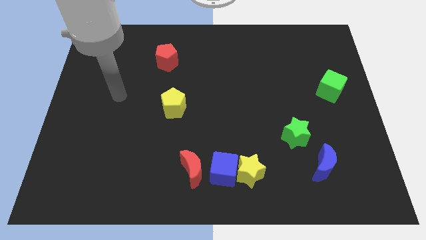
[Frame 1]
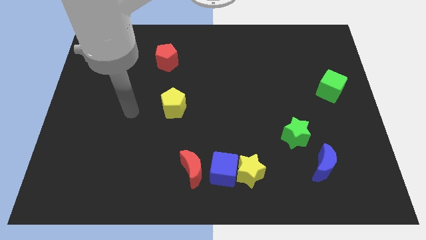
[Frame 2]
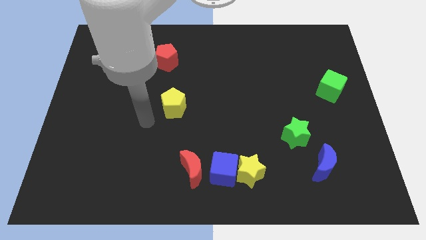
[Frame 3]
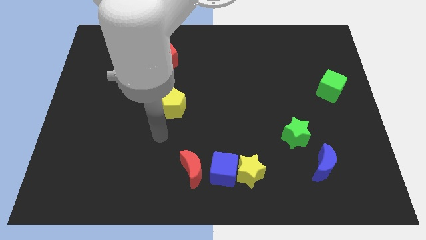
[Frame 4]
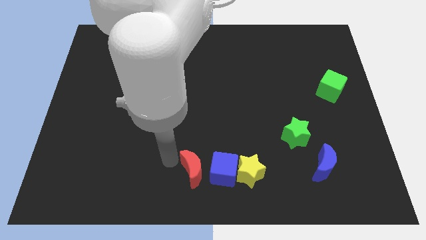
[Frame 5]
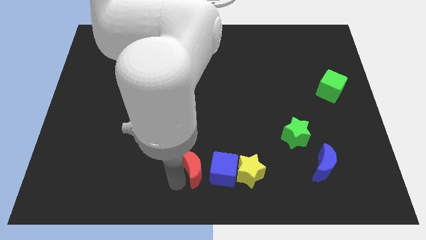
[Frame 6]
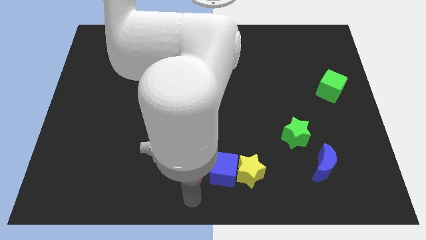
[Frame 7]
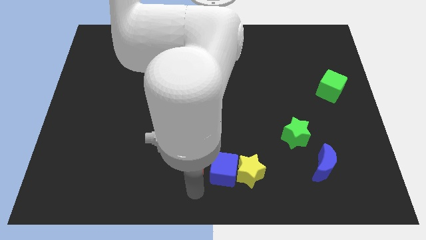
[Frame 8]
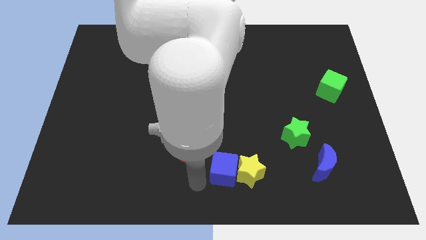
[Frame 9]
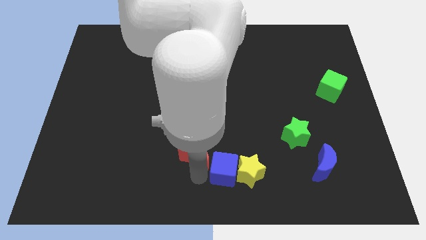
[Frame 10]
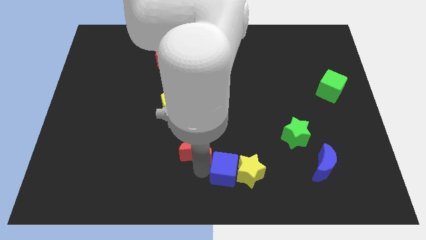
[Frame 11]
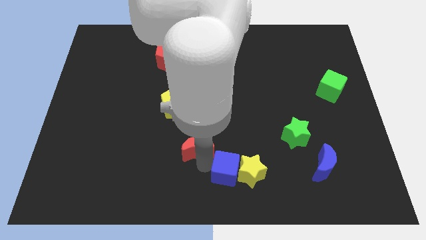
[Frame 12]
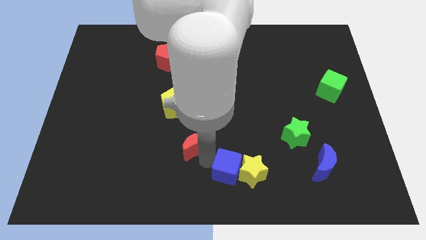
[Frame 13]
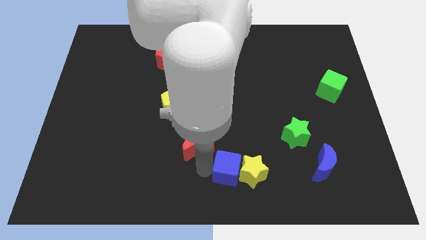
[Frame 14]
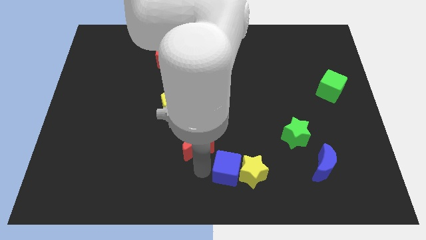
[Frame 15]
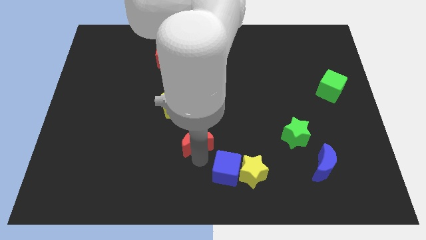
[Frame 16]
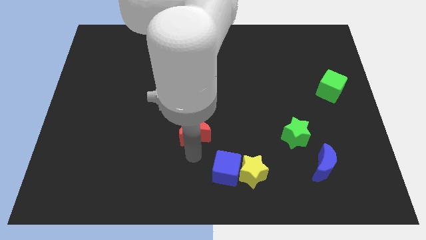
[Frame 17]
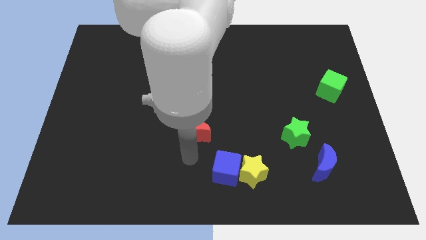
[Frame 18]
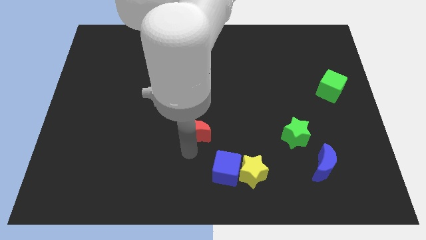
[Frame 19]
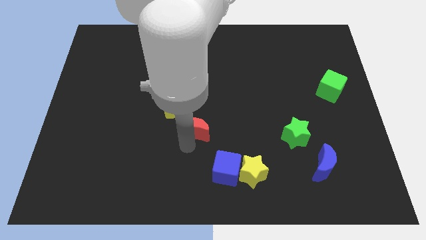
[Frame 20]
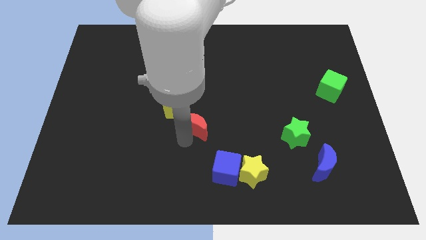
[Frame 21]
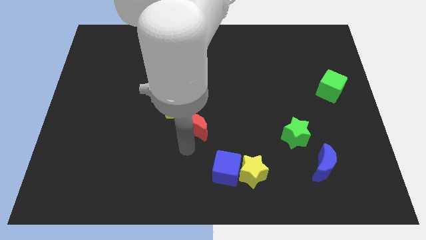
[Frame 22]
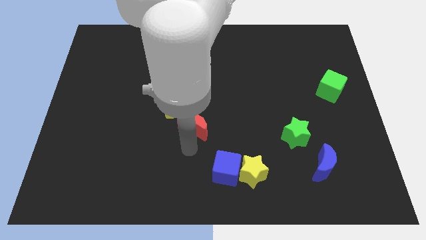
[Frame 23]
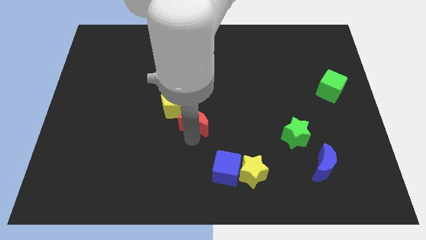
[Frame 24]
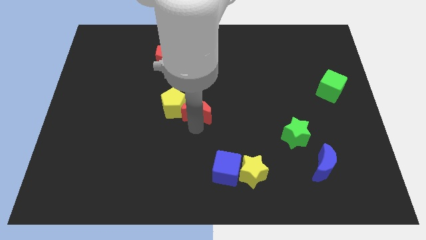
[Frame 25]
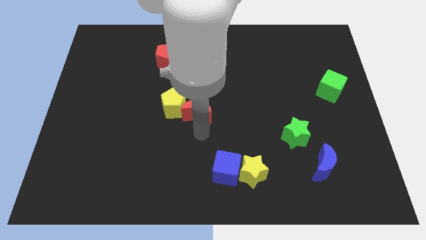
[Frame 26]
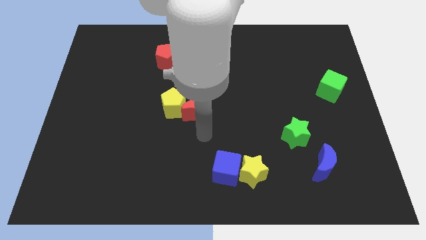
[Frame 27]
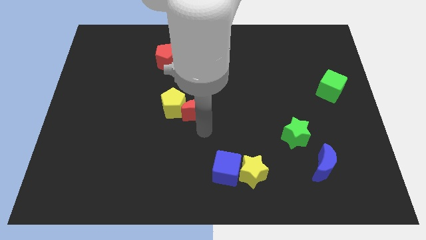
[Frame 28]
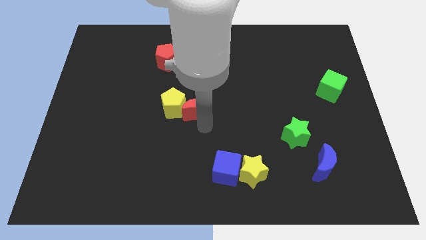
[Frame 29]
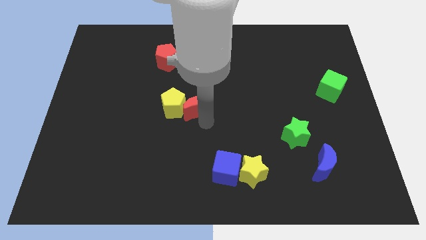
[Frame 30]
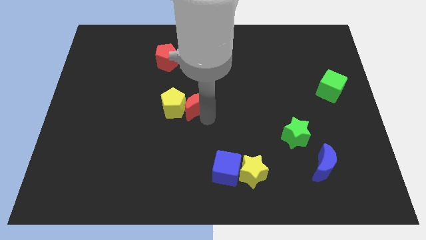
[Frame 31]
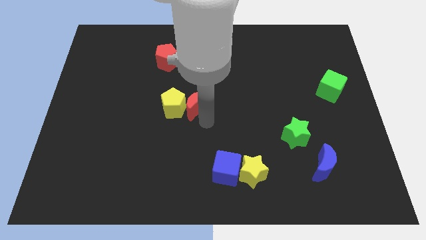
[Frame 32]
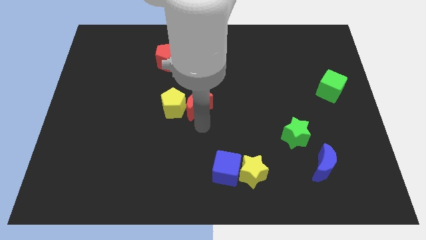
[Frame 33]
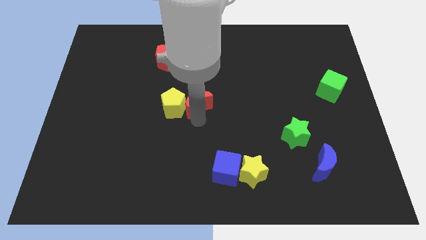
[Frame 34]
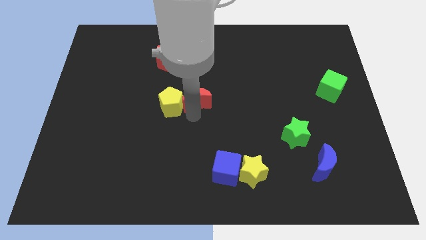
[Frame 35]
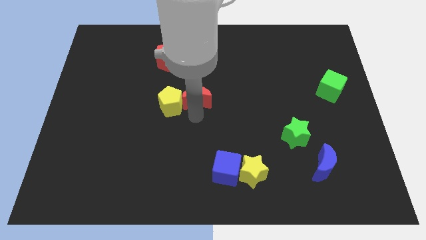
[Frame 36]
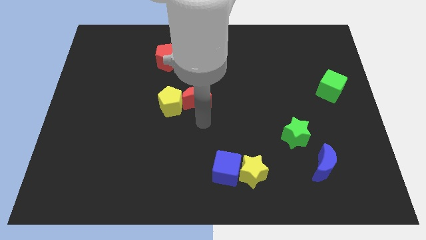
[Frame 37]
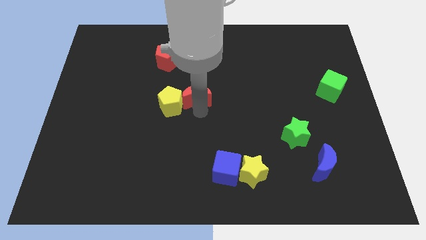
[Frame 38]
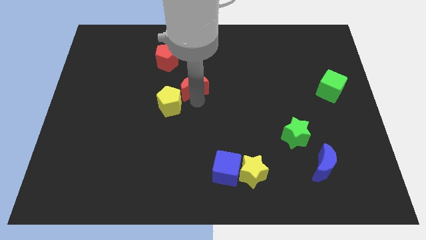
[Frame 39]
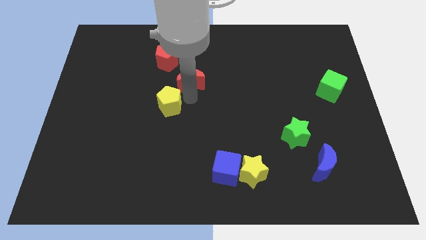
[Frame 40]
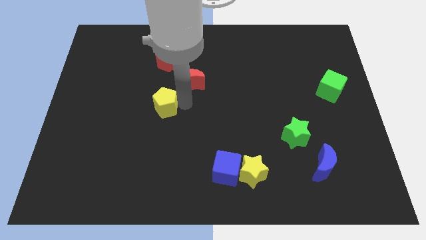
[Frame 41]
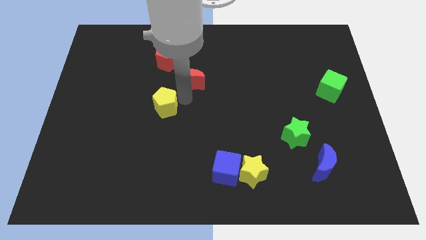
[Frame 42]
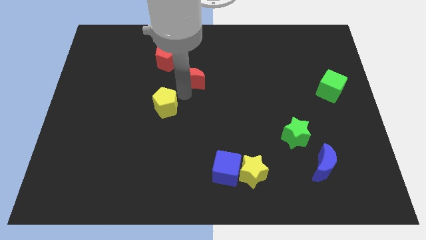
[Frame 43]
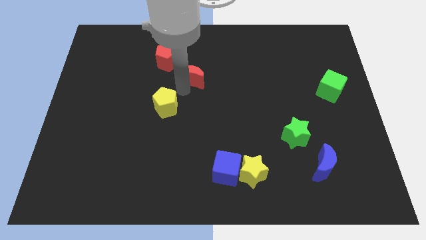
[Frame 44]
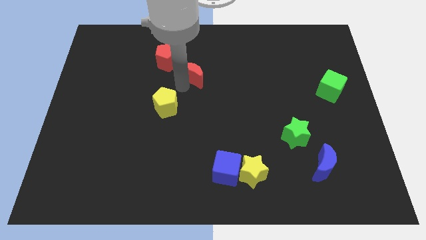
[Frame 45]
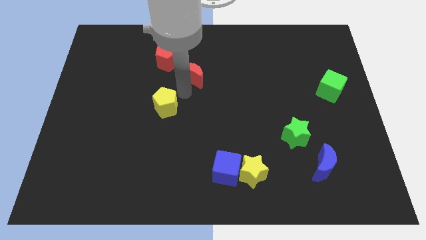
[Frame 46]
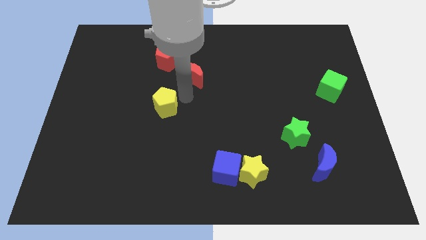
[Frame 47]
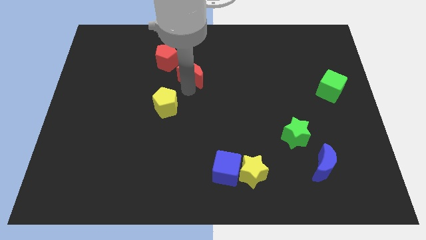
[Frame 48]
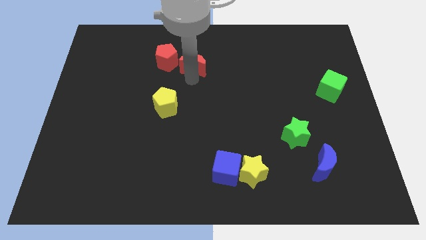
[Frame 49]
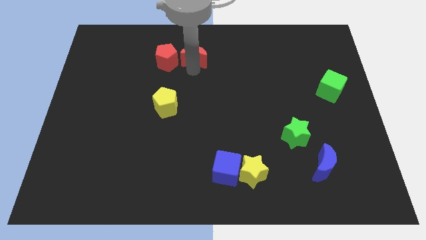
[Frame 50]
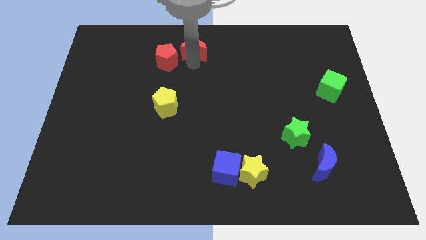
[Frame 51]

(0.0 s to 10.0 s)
slide the red moon to the towards your base

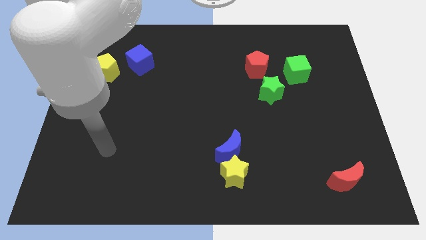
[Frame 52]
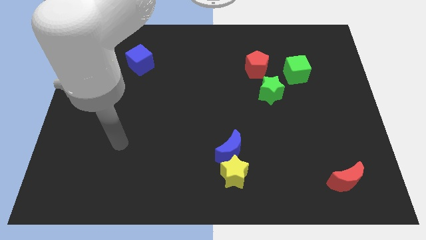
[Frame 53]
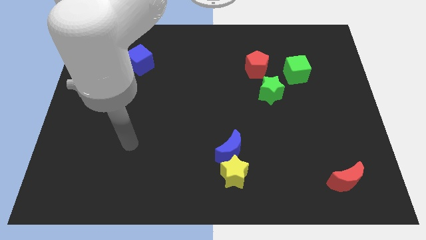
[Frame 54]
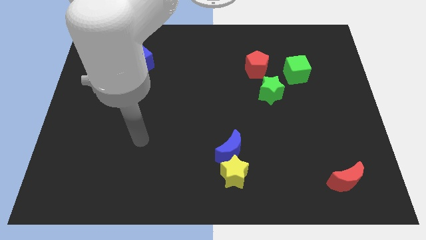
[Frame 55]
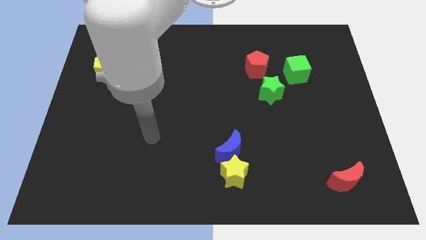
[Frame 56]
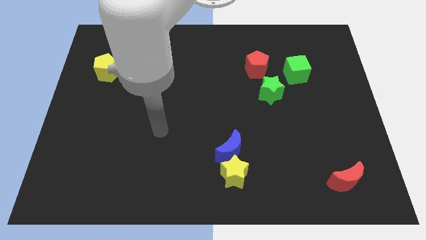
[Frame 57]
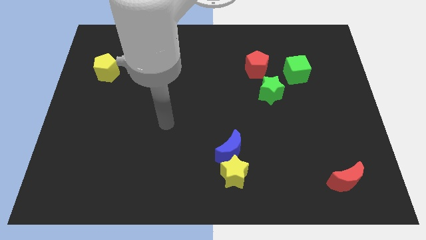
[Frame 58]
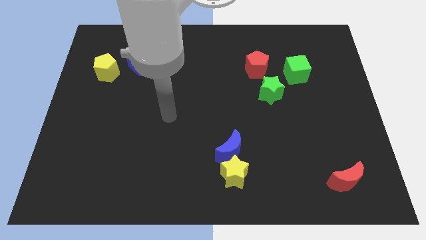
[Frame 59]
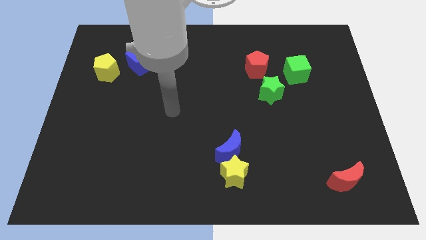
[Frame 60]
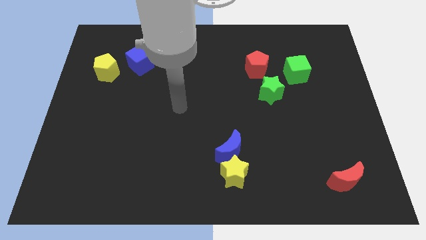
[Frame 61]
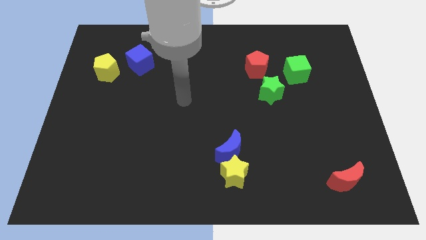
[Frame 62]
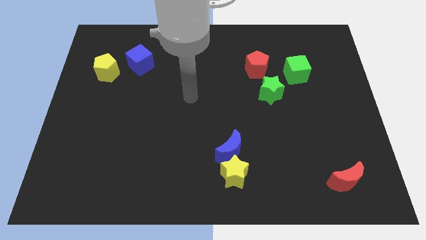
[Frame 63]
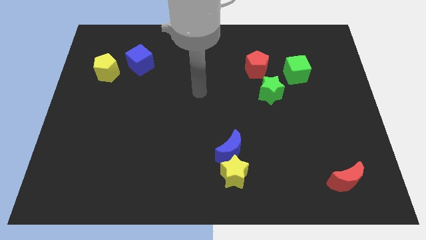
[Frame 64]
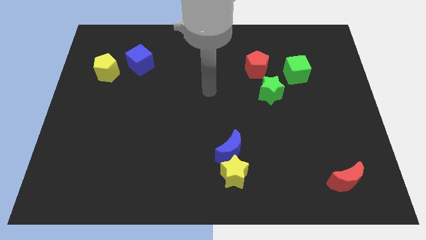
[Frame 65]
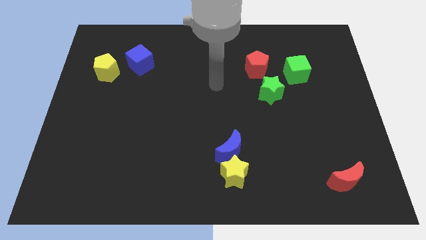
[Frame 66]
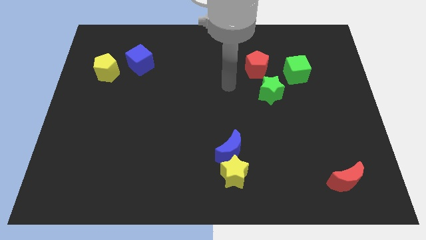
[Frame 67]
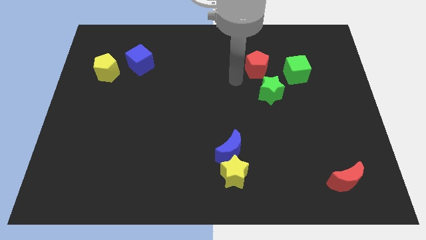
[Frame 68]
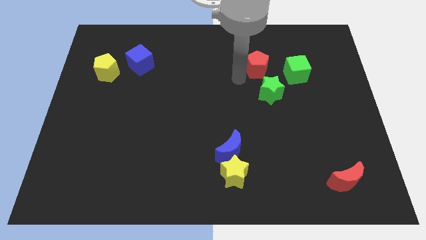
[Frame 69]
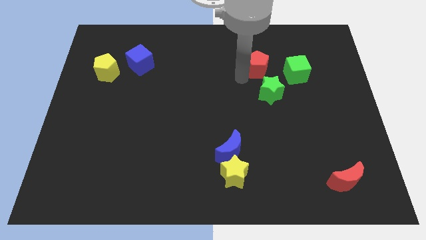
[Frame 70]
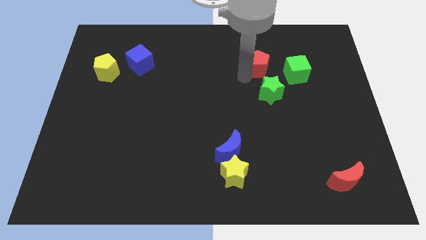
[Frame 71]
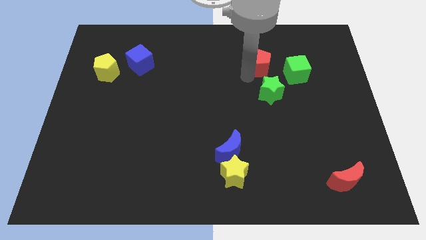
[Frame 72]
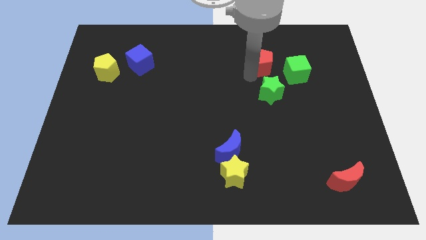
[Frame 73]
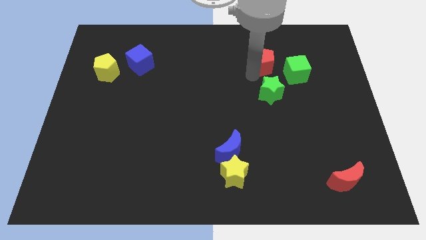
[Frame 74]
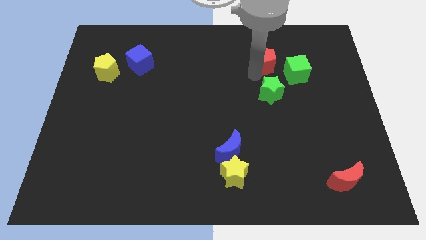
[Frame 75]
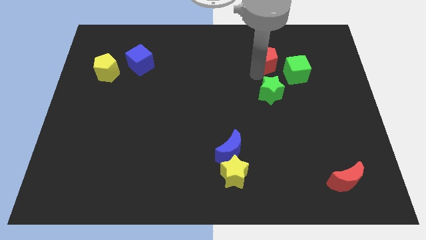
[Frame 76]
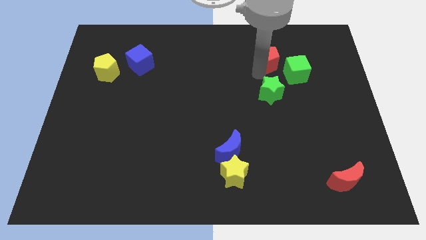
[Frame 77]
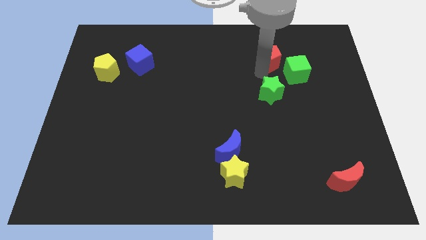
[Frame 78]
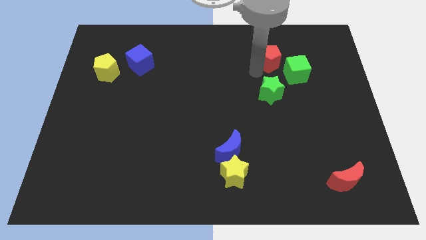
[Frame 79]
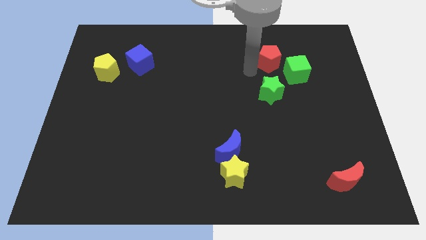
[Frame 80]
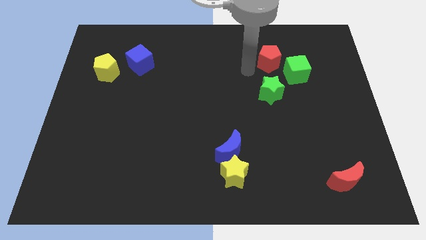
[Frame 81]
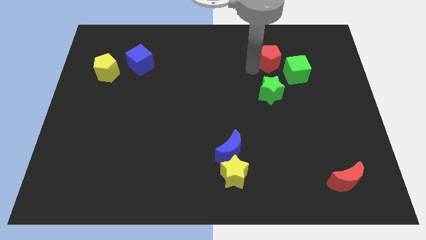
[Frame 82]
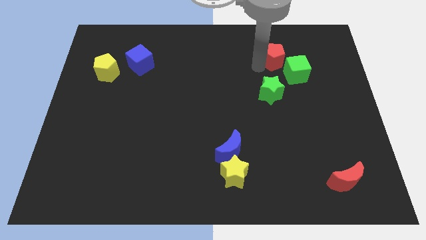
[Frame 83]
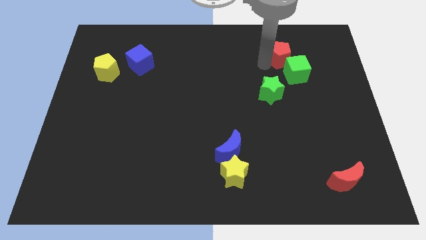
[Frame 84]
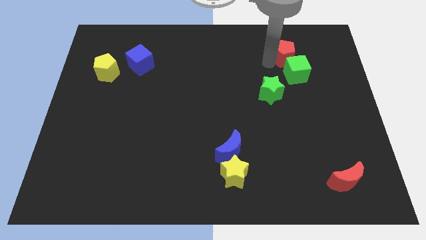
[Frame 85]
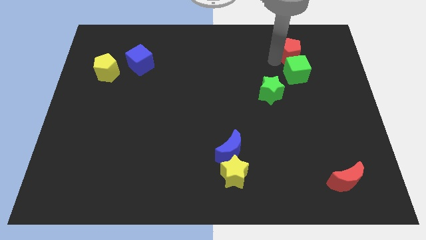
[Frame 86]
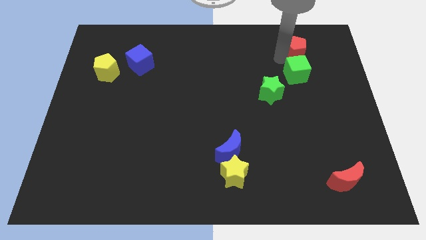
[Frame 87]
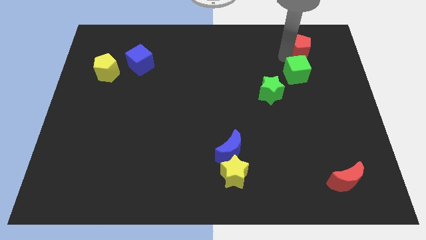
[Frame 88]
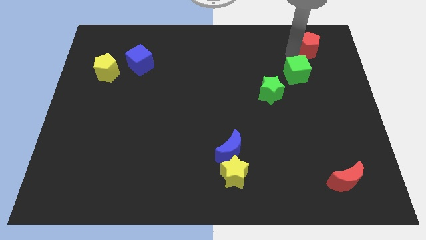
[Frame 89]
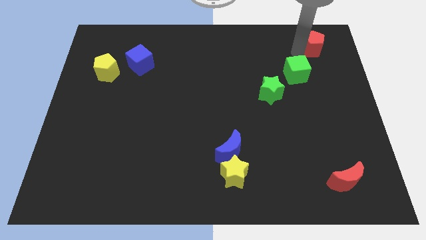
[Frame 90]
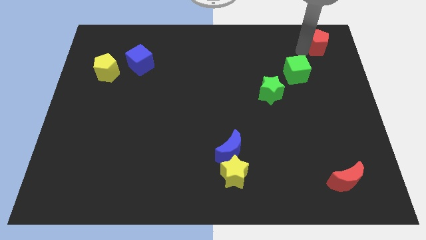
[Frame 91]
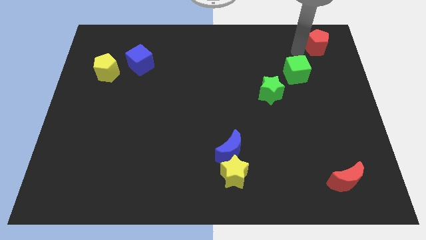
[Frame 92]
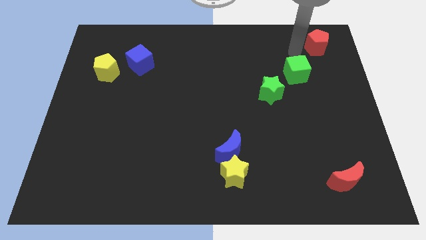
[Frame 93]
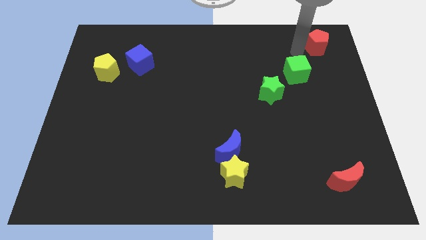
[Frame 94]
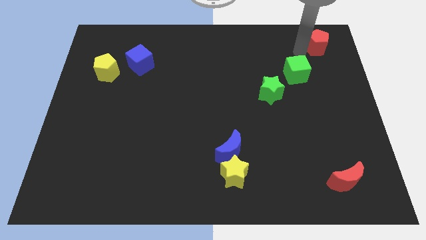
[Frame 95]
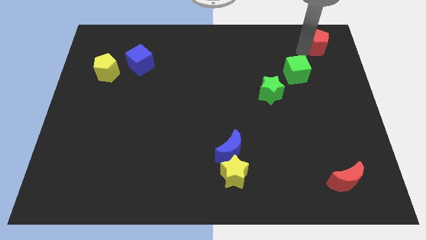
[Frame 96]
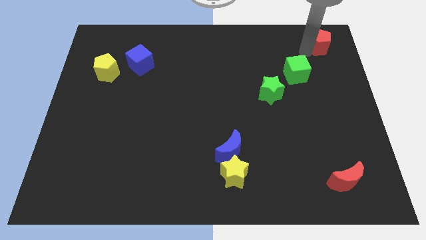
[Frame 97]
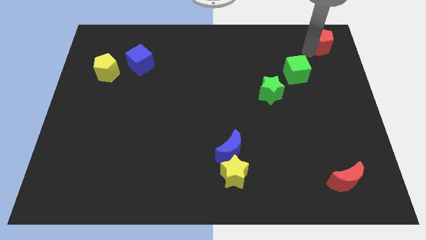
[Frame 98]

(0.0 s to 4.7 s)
put the red pentagon to the upper right corner
